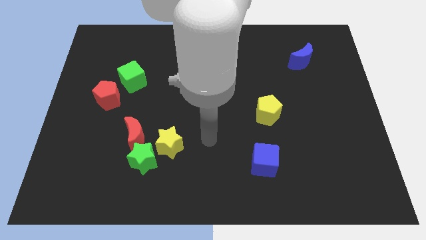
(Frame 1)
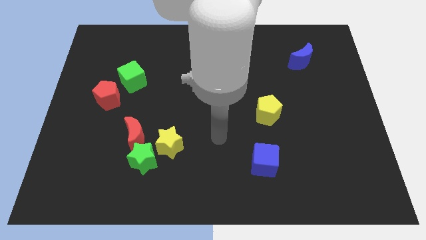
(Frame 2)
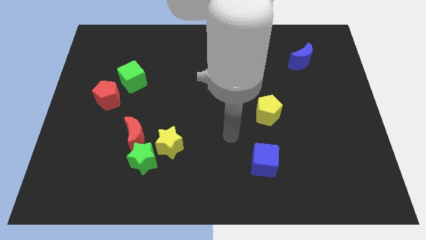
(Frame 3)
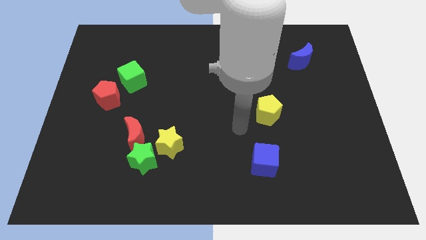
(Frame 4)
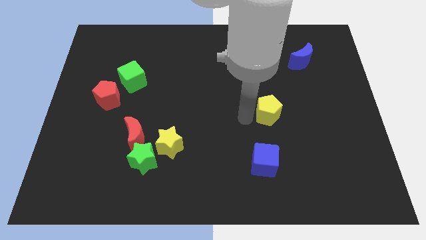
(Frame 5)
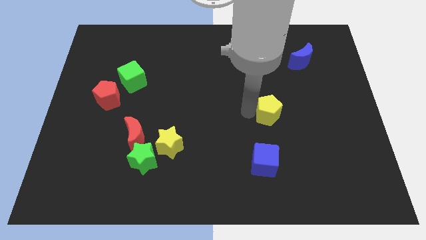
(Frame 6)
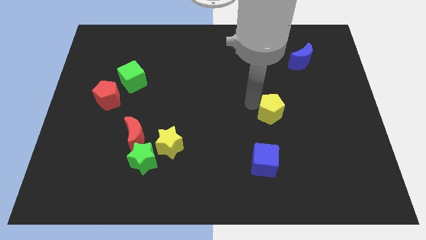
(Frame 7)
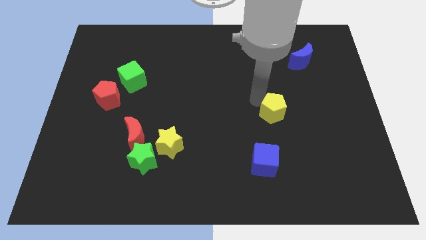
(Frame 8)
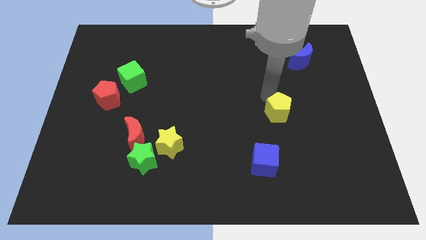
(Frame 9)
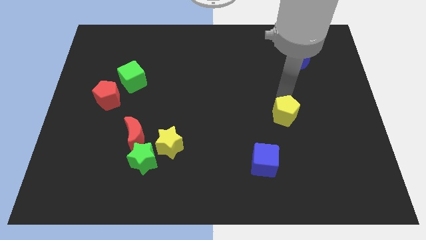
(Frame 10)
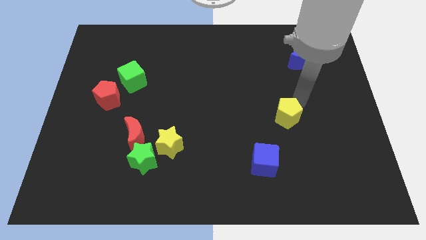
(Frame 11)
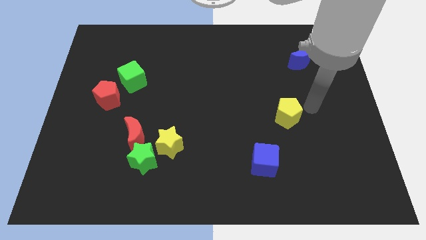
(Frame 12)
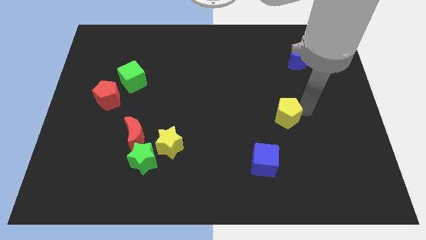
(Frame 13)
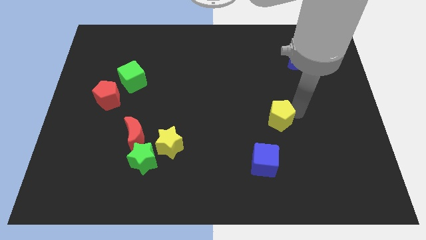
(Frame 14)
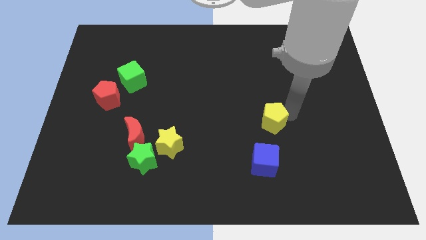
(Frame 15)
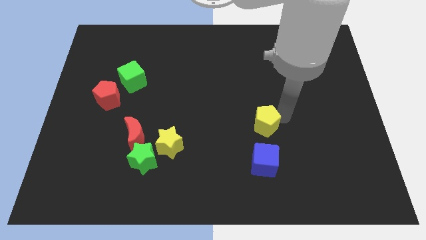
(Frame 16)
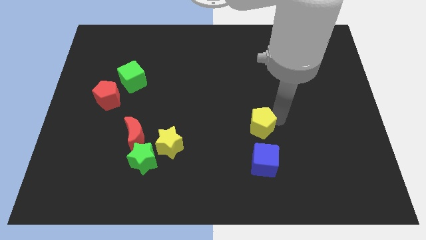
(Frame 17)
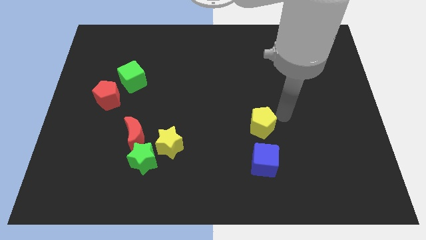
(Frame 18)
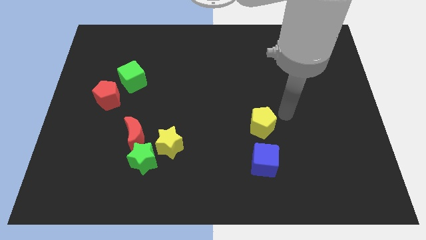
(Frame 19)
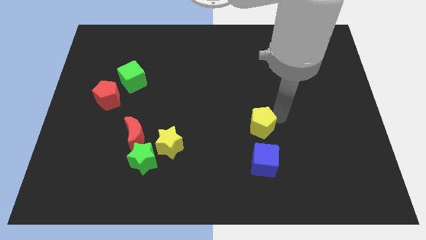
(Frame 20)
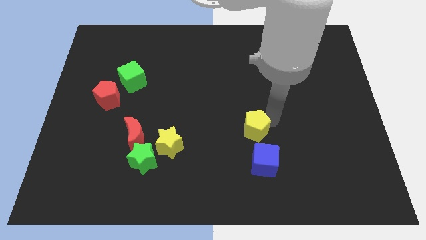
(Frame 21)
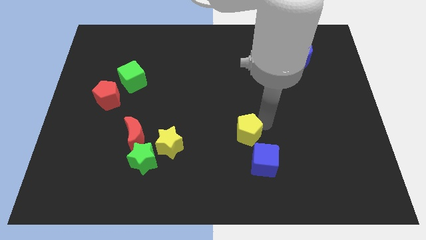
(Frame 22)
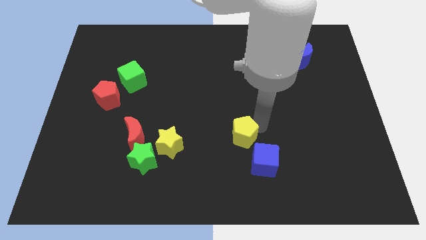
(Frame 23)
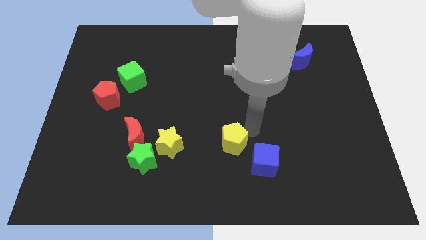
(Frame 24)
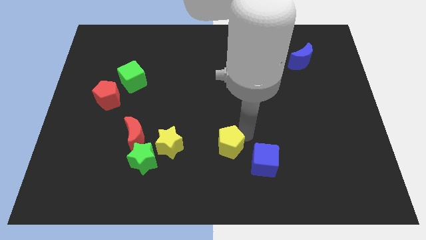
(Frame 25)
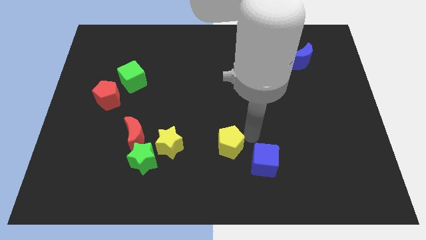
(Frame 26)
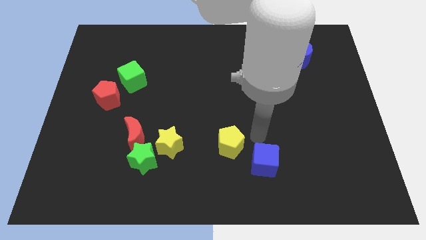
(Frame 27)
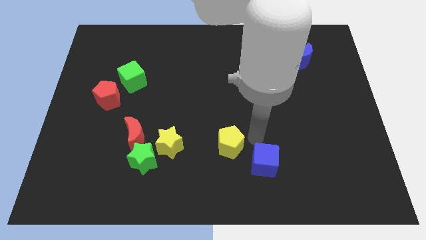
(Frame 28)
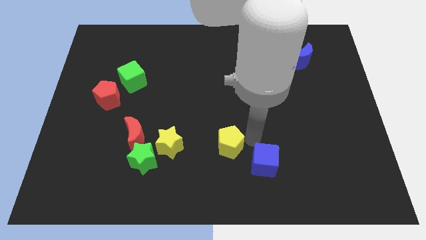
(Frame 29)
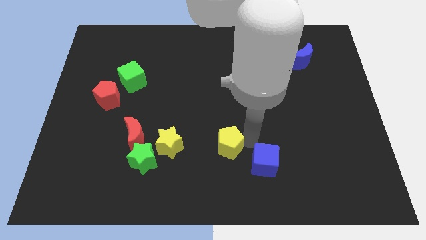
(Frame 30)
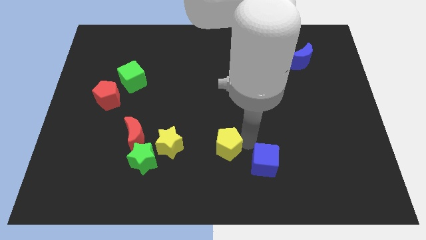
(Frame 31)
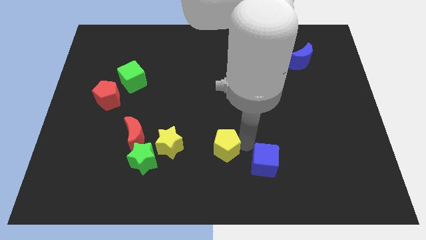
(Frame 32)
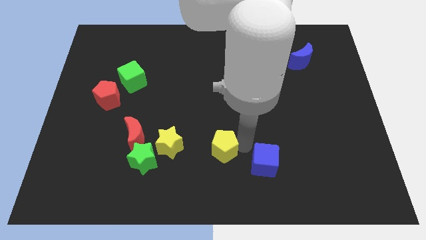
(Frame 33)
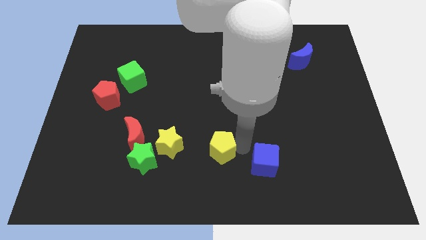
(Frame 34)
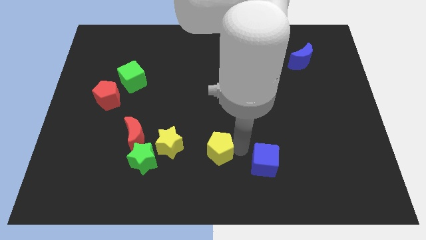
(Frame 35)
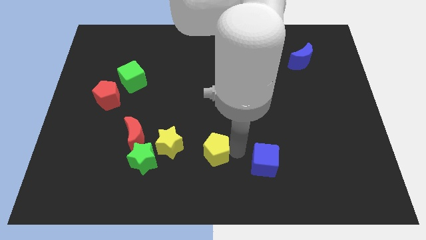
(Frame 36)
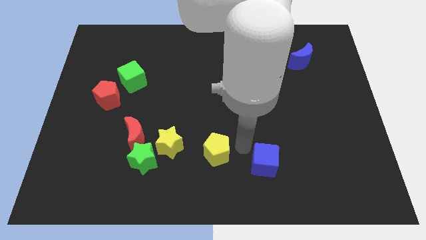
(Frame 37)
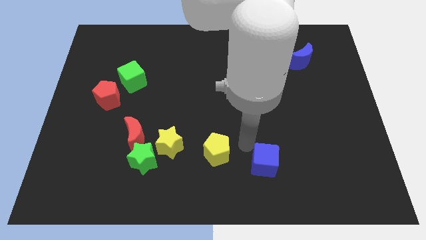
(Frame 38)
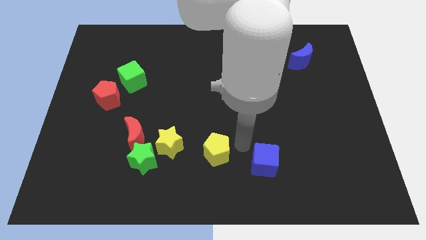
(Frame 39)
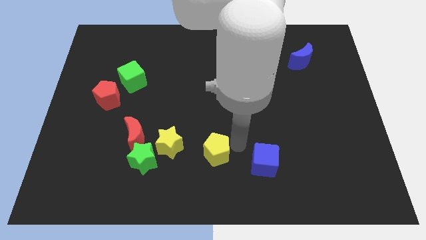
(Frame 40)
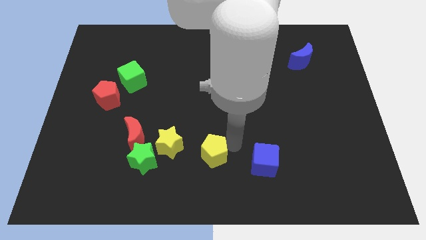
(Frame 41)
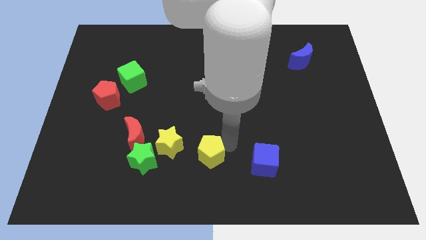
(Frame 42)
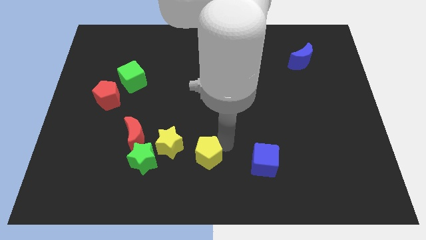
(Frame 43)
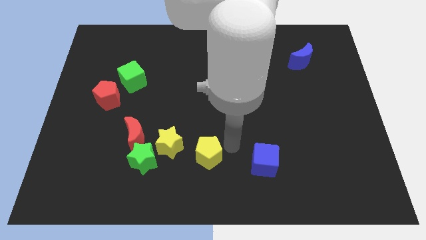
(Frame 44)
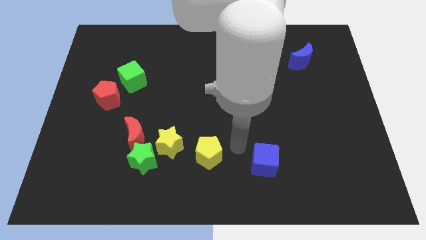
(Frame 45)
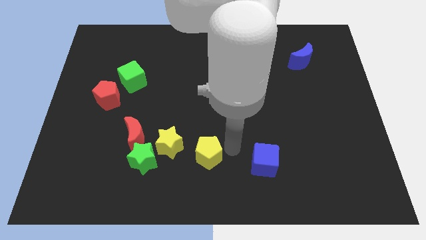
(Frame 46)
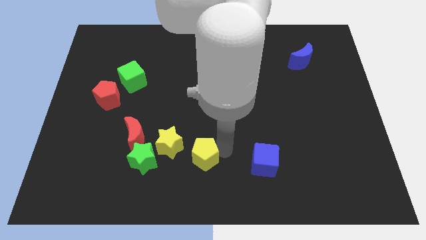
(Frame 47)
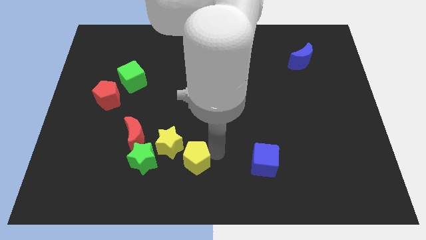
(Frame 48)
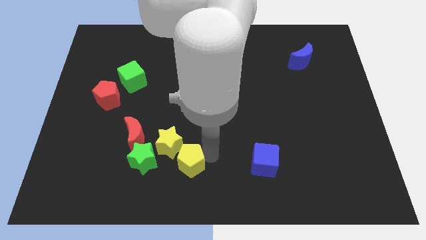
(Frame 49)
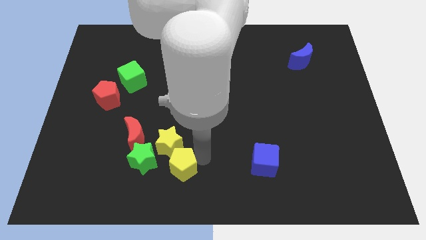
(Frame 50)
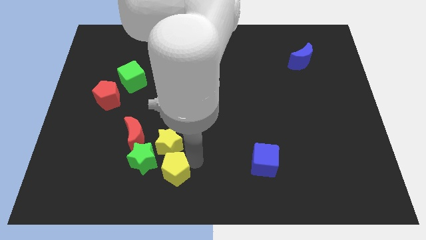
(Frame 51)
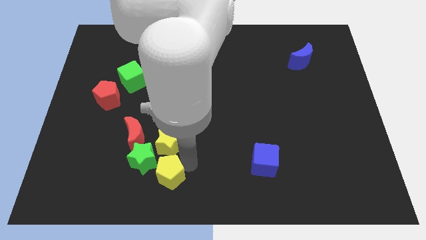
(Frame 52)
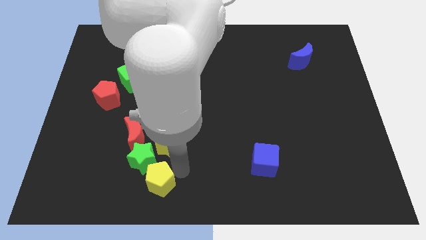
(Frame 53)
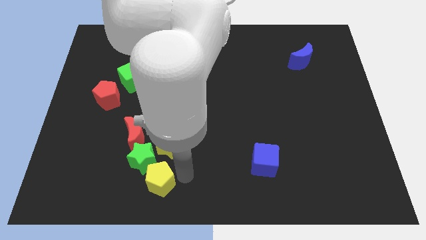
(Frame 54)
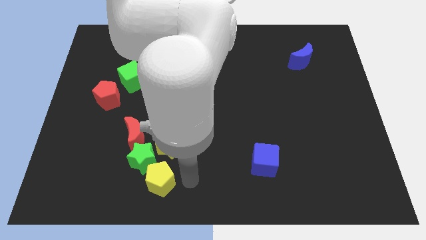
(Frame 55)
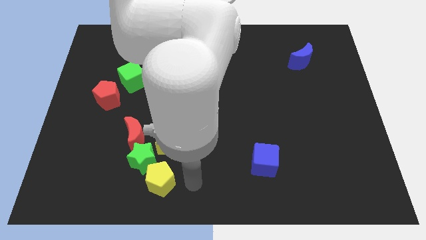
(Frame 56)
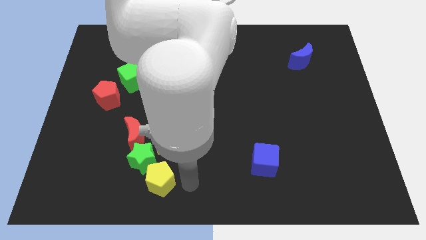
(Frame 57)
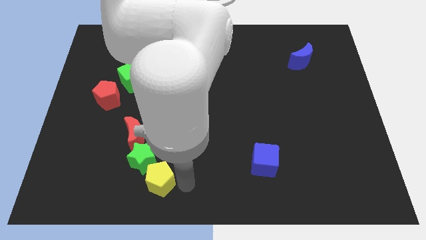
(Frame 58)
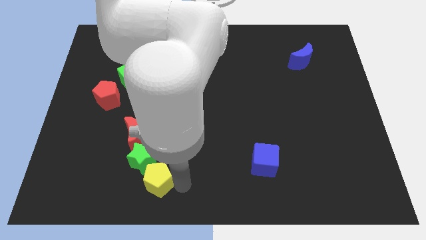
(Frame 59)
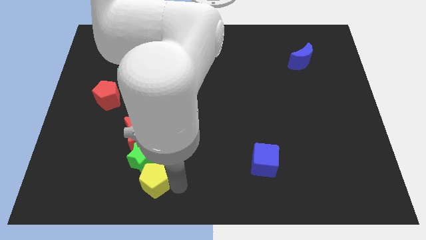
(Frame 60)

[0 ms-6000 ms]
put the yellow pentagon diagonally down and to the left of the yellow star
